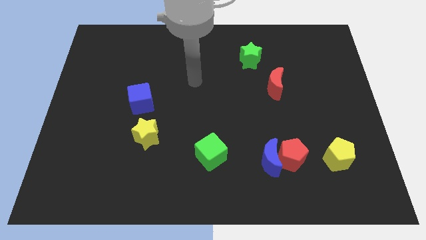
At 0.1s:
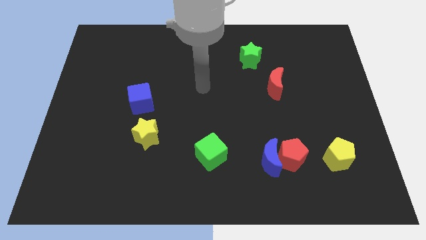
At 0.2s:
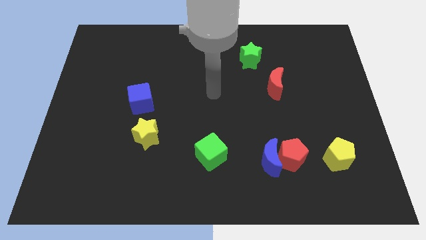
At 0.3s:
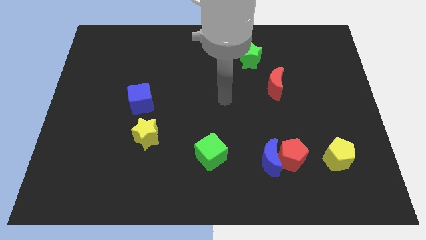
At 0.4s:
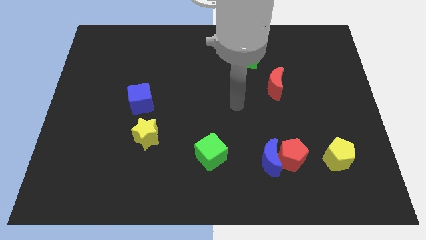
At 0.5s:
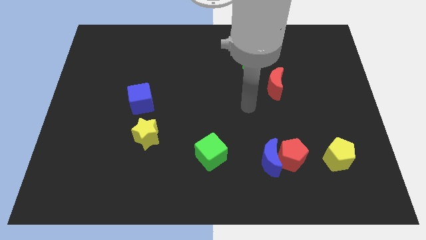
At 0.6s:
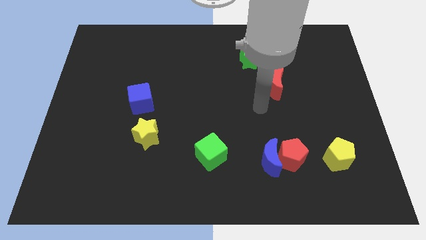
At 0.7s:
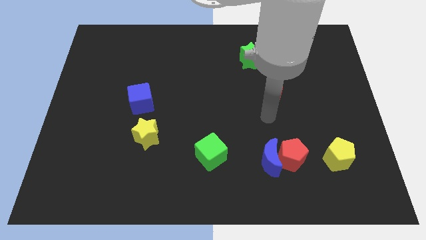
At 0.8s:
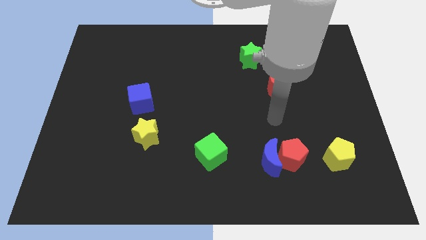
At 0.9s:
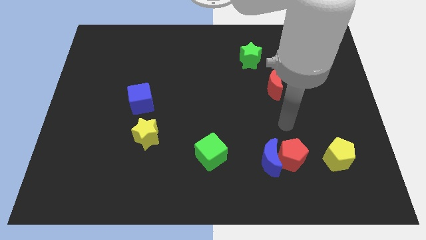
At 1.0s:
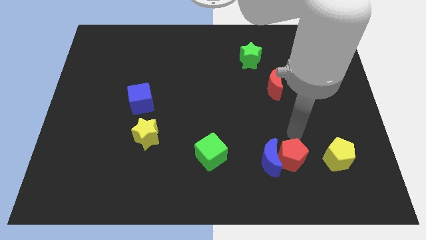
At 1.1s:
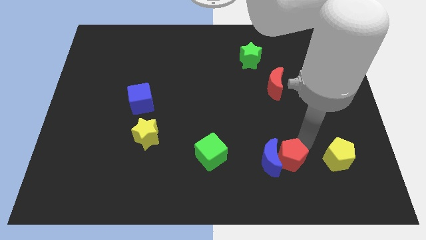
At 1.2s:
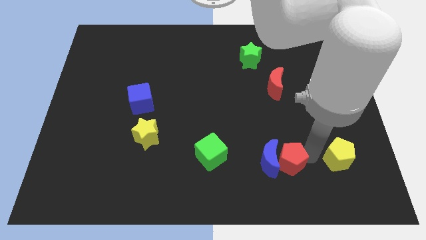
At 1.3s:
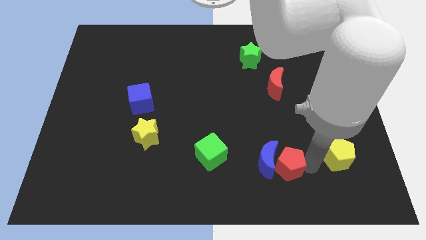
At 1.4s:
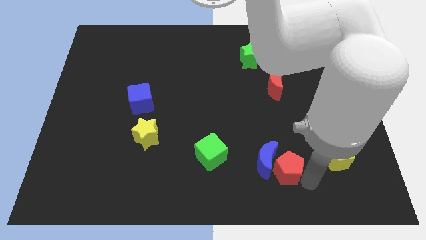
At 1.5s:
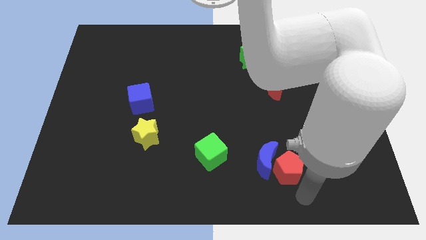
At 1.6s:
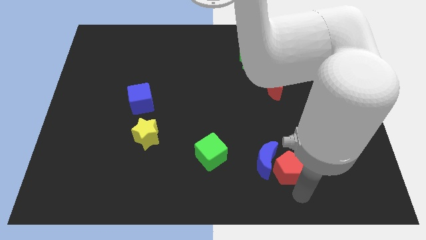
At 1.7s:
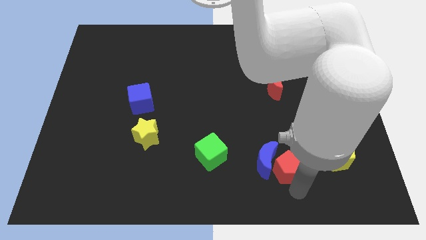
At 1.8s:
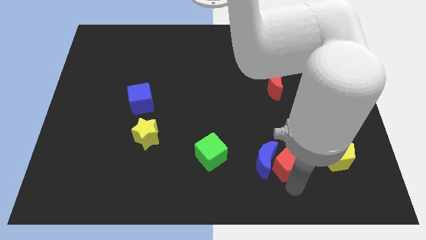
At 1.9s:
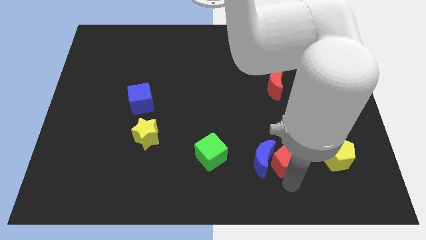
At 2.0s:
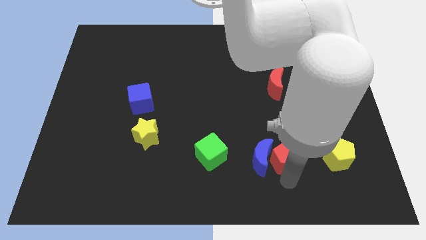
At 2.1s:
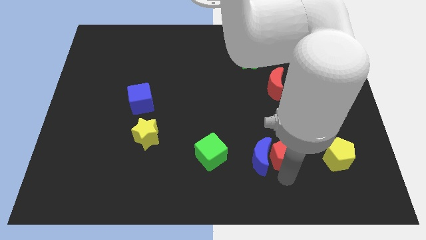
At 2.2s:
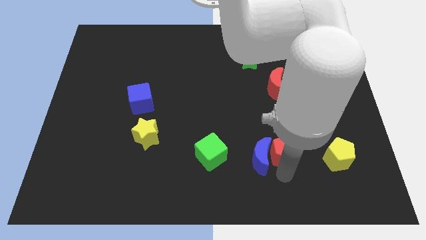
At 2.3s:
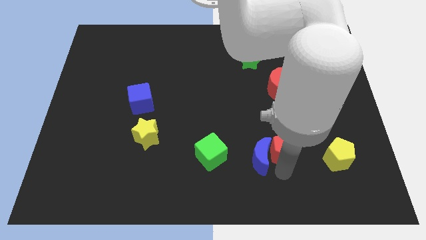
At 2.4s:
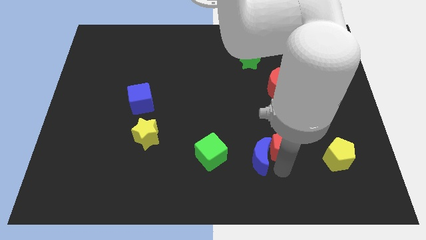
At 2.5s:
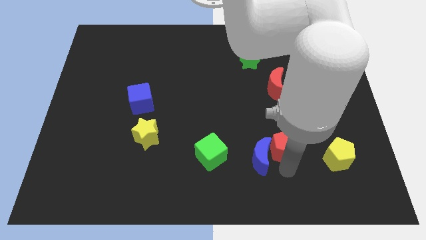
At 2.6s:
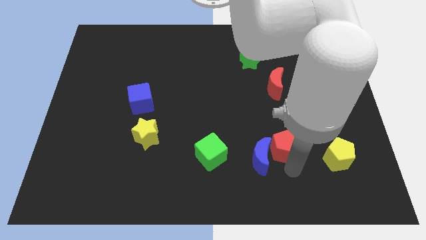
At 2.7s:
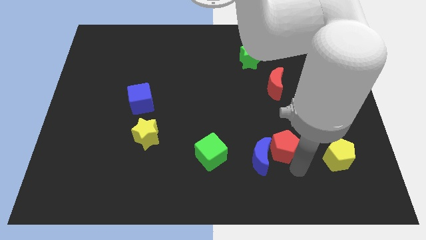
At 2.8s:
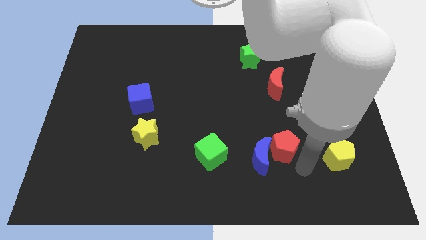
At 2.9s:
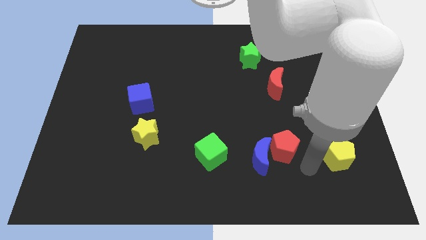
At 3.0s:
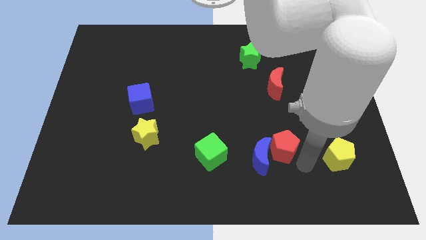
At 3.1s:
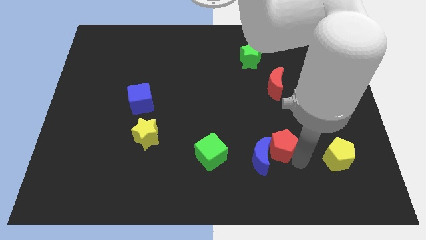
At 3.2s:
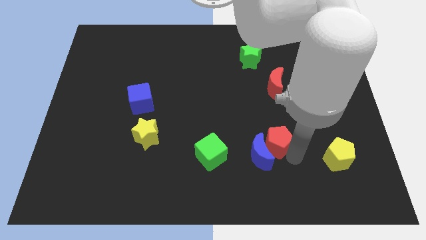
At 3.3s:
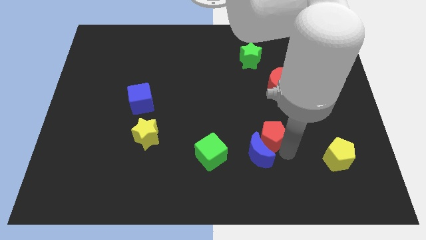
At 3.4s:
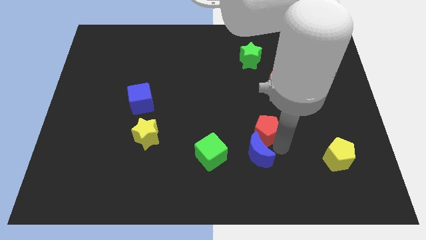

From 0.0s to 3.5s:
slightly push the red pentagon upwards and left diagonally

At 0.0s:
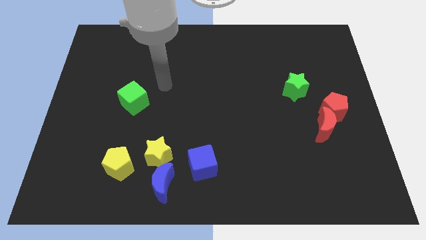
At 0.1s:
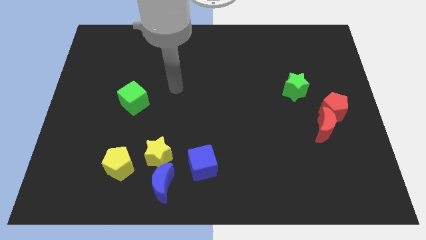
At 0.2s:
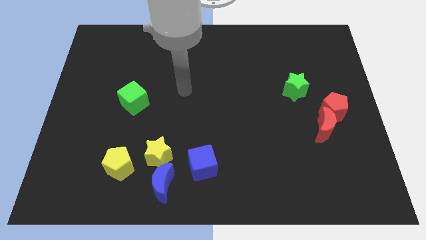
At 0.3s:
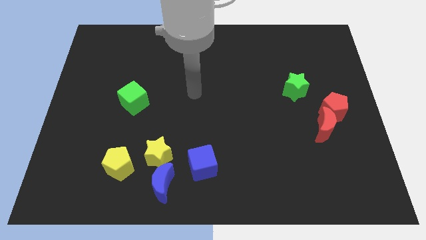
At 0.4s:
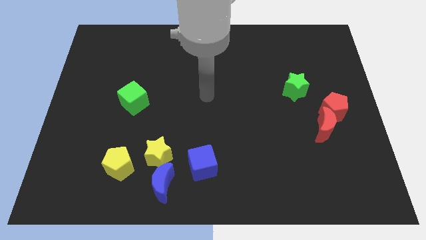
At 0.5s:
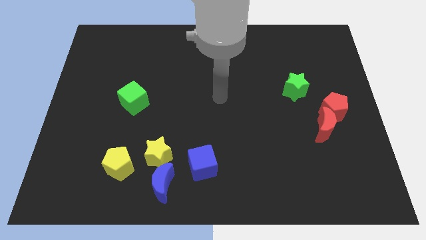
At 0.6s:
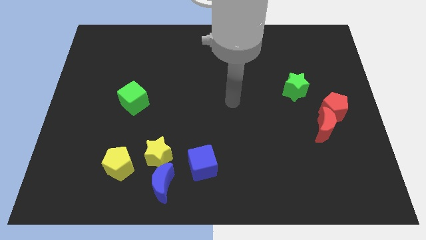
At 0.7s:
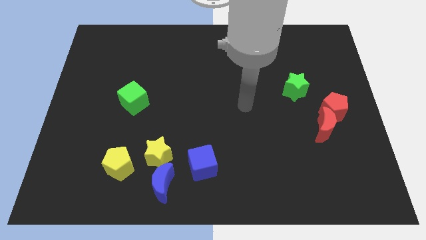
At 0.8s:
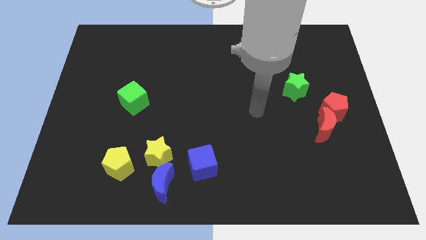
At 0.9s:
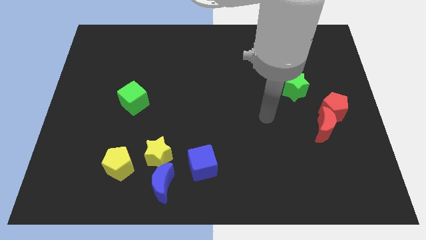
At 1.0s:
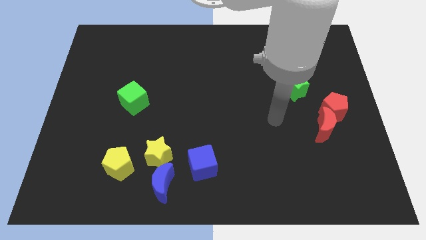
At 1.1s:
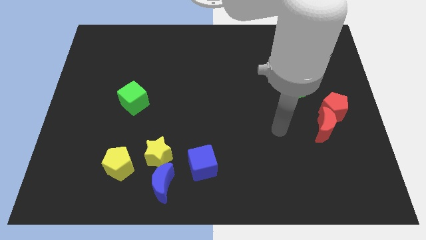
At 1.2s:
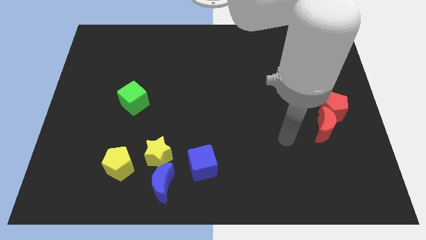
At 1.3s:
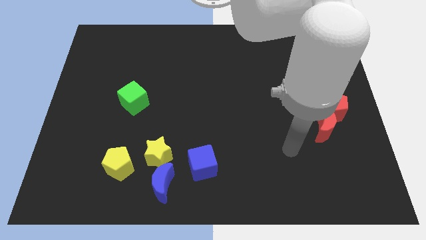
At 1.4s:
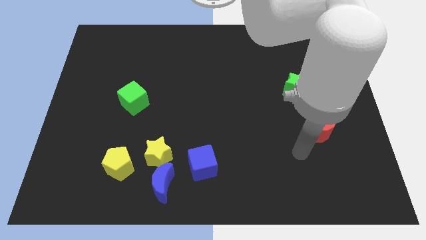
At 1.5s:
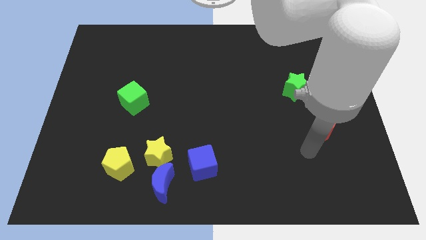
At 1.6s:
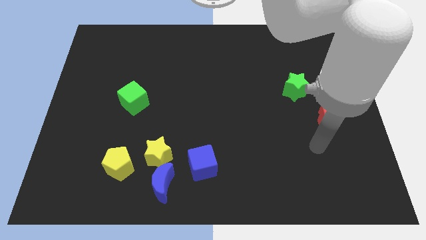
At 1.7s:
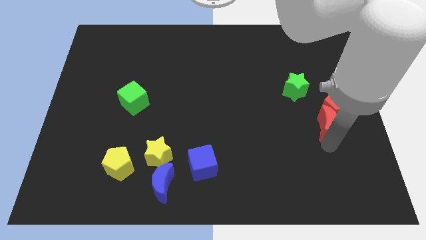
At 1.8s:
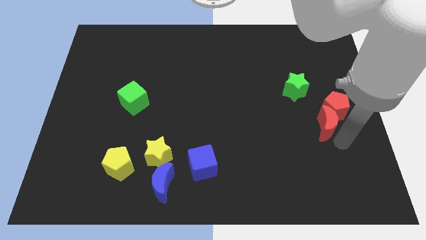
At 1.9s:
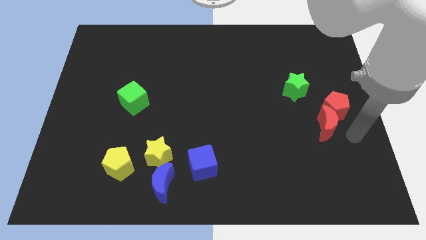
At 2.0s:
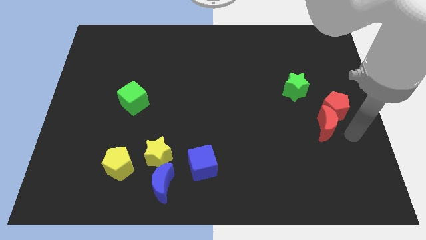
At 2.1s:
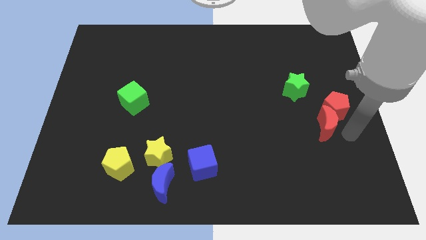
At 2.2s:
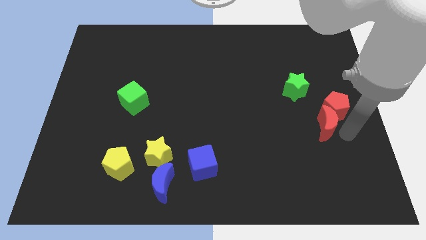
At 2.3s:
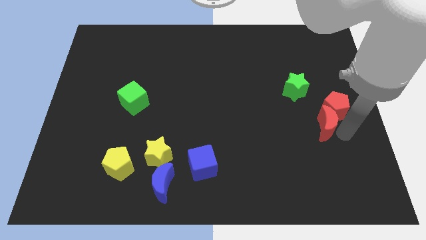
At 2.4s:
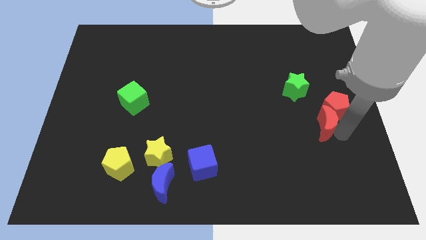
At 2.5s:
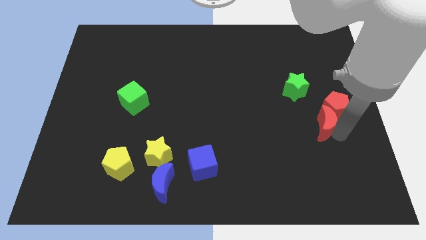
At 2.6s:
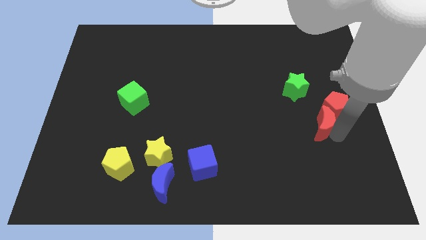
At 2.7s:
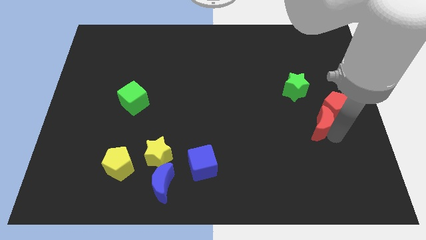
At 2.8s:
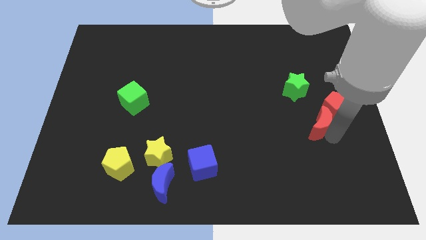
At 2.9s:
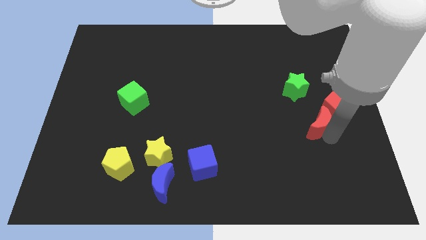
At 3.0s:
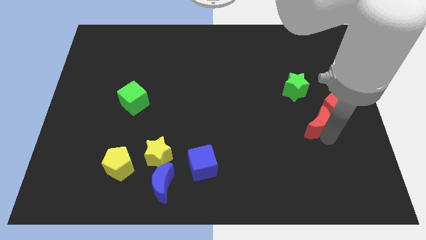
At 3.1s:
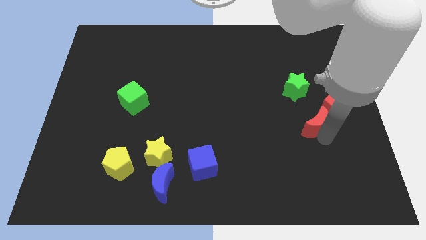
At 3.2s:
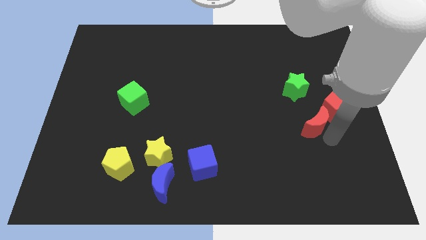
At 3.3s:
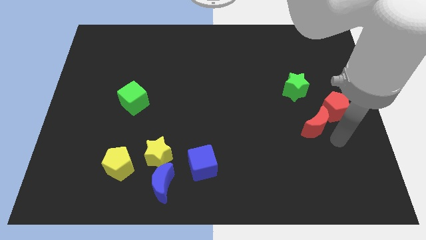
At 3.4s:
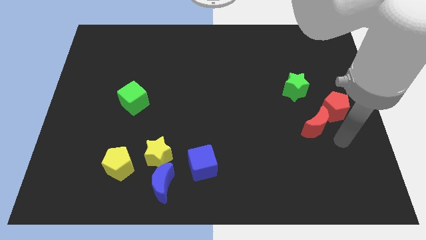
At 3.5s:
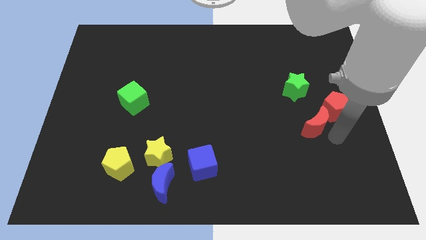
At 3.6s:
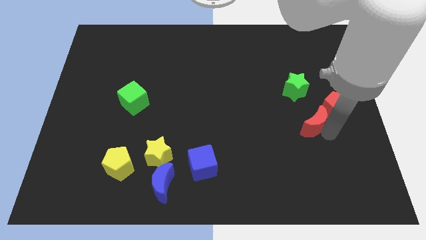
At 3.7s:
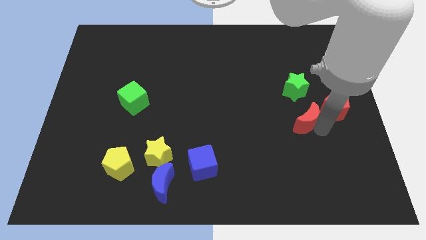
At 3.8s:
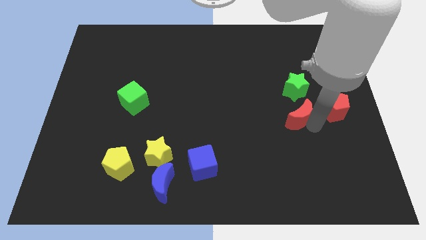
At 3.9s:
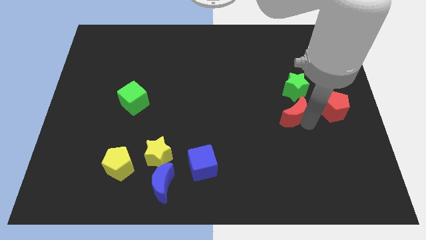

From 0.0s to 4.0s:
slide the red moon upwards and left diagonally somewhat
